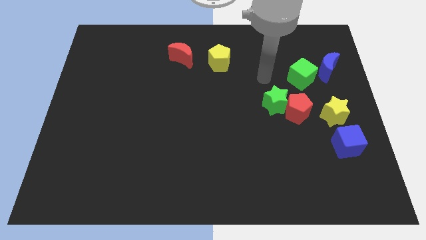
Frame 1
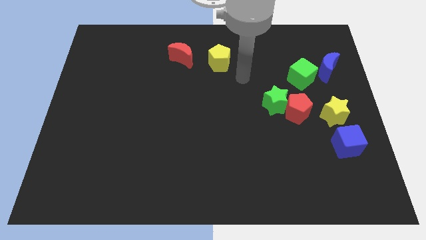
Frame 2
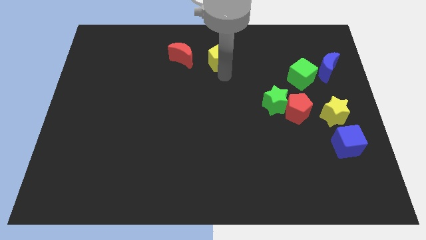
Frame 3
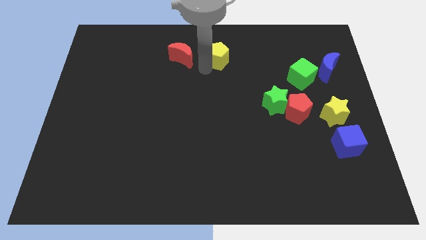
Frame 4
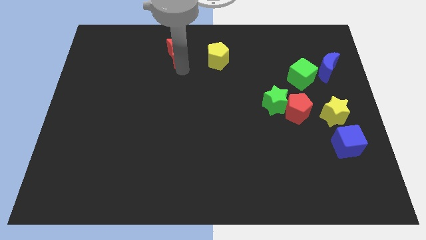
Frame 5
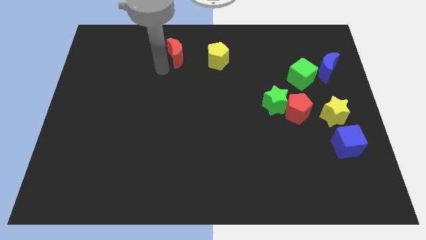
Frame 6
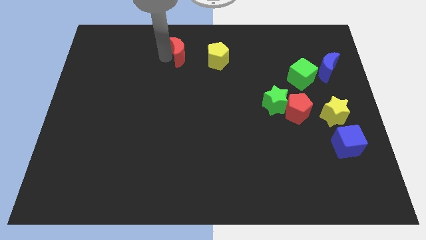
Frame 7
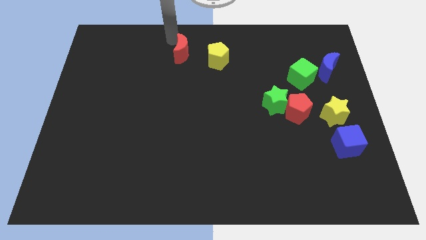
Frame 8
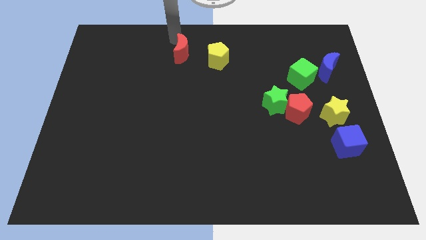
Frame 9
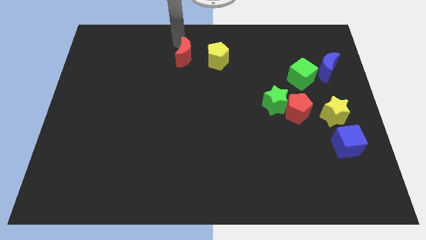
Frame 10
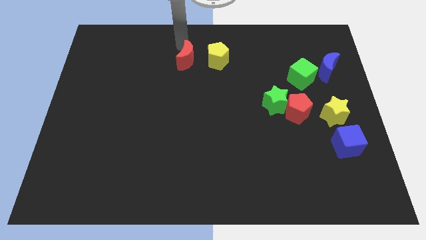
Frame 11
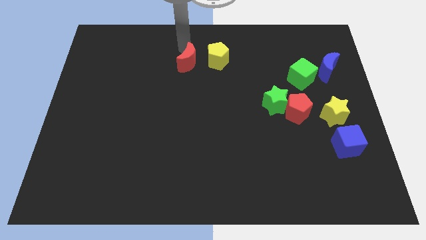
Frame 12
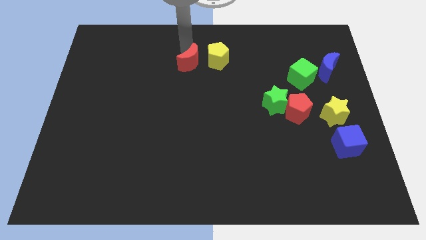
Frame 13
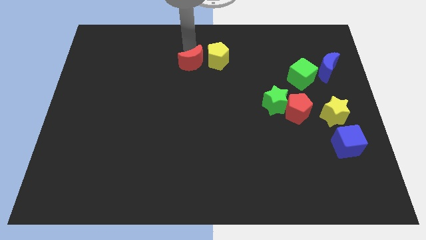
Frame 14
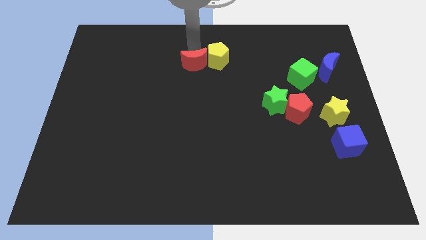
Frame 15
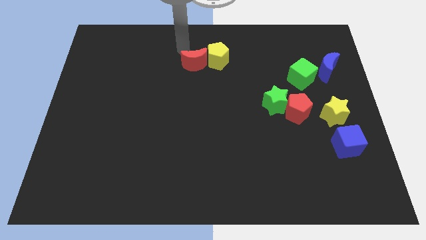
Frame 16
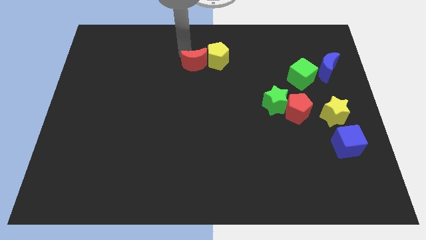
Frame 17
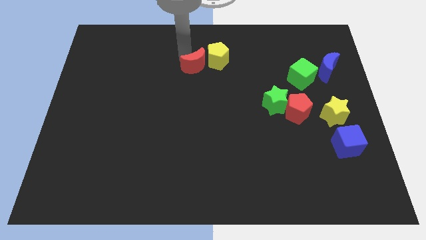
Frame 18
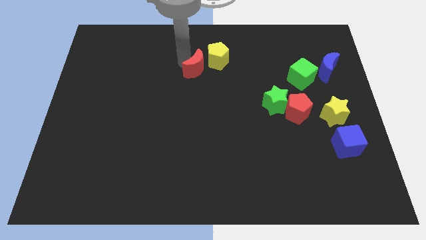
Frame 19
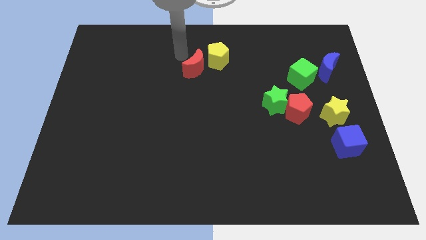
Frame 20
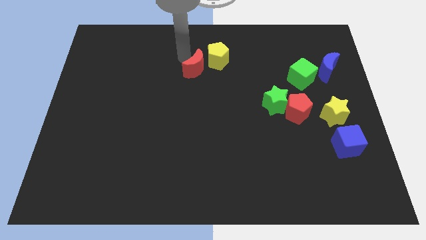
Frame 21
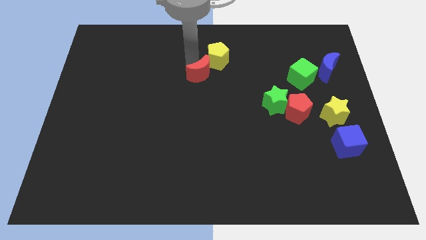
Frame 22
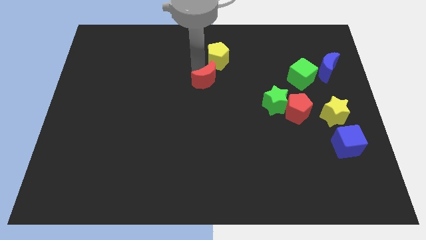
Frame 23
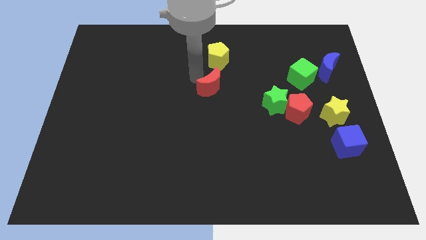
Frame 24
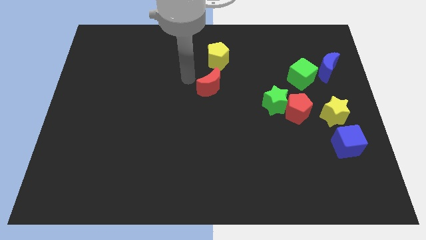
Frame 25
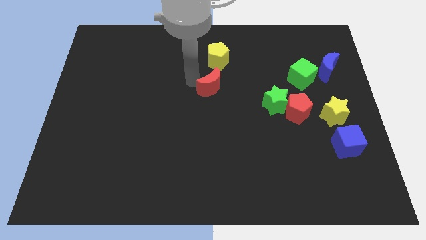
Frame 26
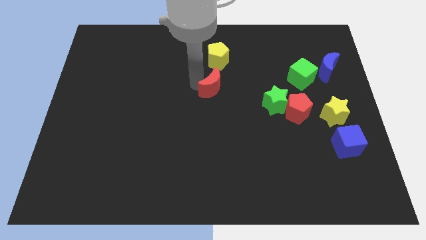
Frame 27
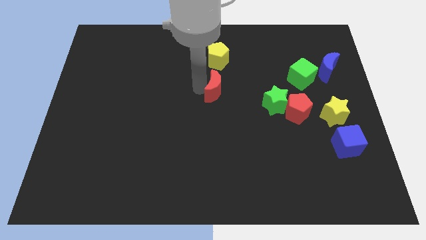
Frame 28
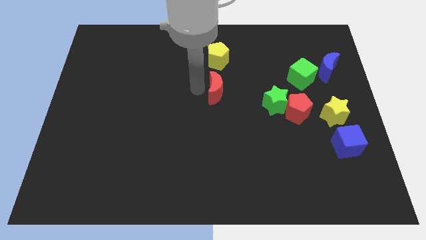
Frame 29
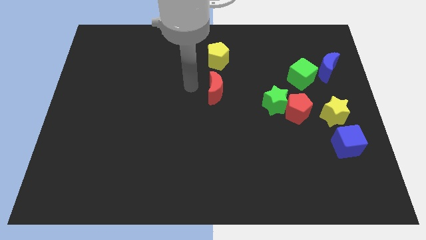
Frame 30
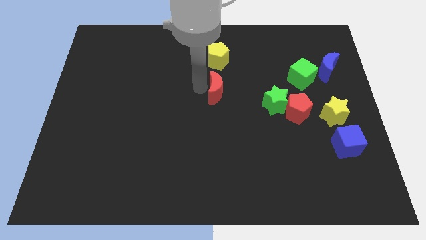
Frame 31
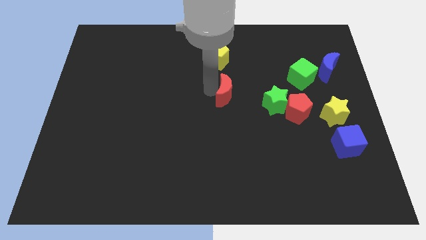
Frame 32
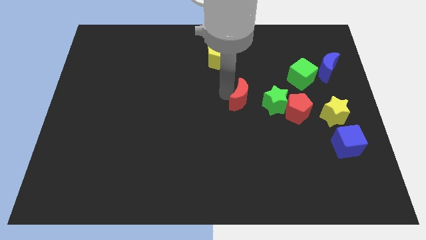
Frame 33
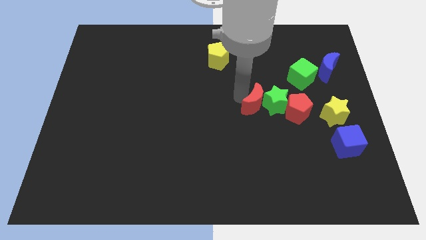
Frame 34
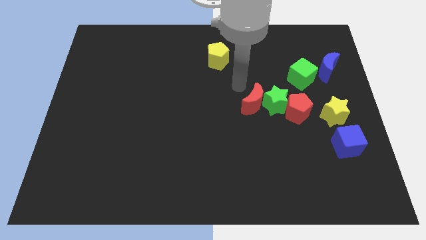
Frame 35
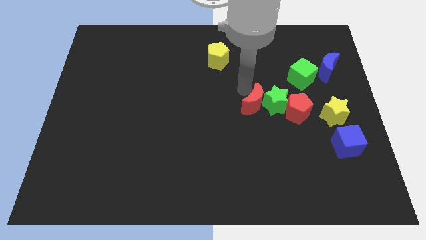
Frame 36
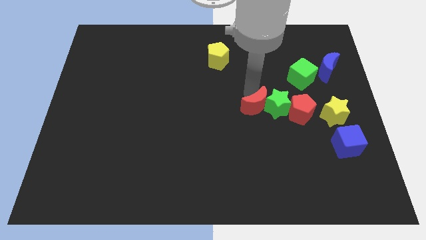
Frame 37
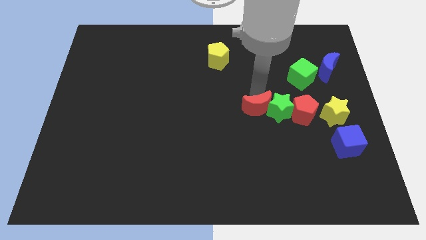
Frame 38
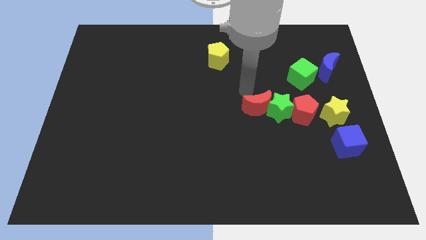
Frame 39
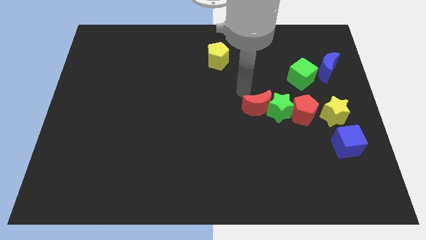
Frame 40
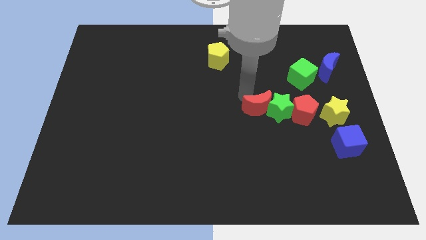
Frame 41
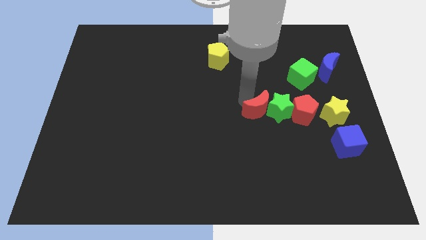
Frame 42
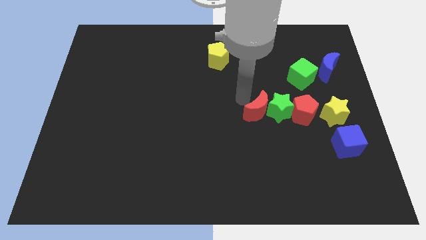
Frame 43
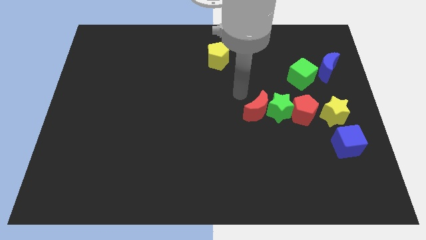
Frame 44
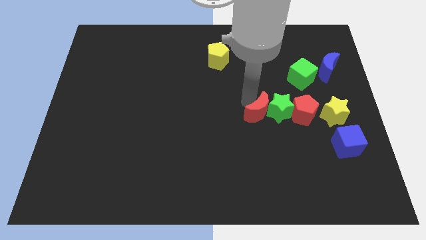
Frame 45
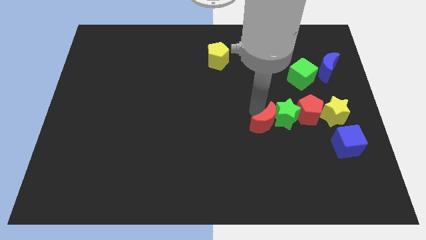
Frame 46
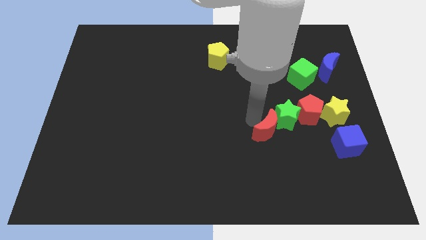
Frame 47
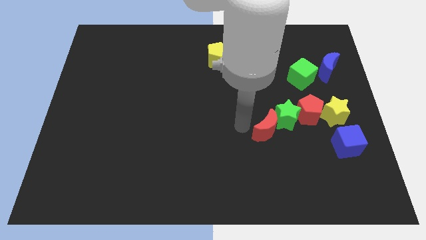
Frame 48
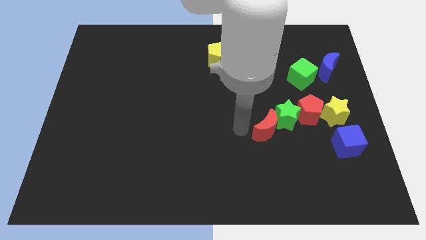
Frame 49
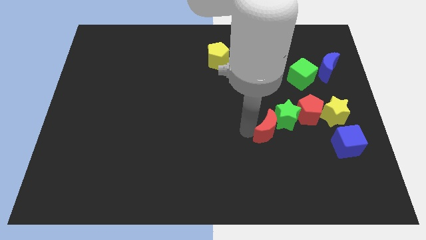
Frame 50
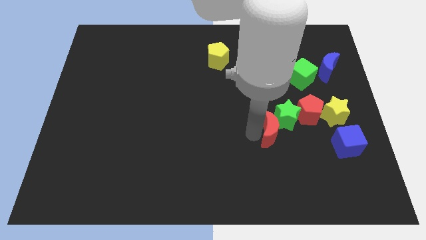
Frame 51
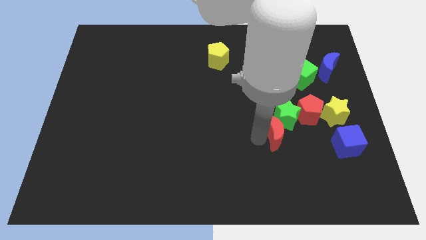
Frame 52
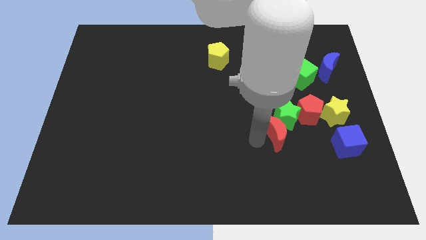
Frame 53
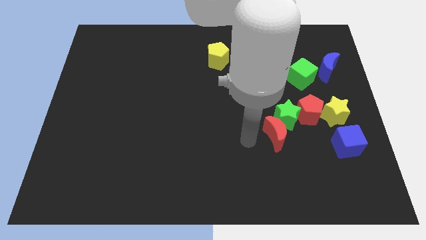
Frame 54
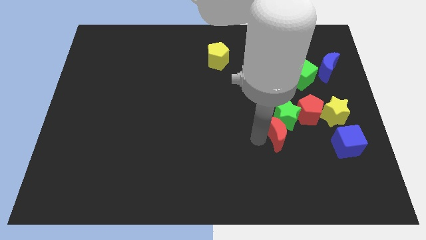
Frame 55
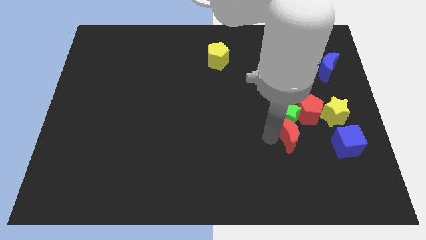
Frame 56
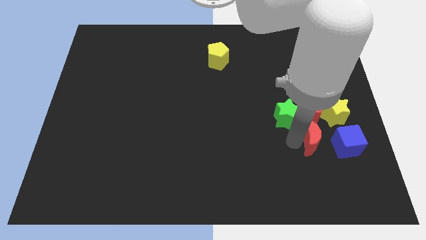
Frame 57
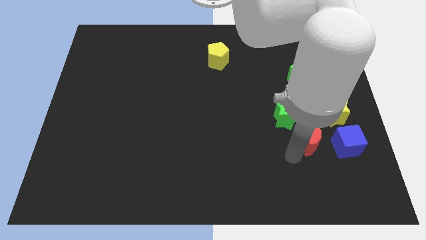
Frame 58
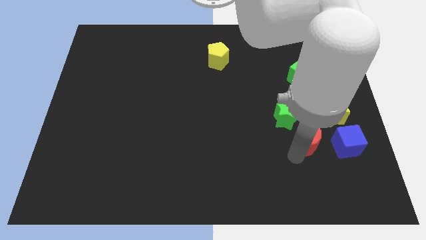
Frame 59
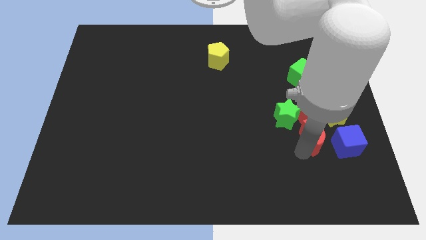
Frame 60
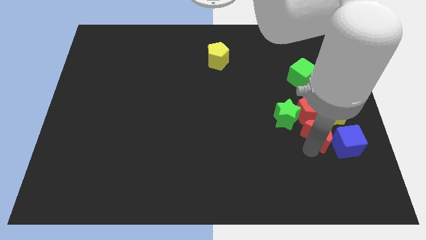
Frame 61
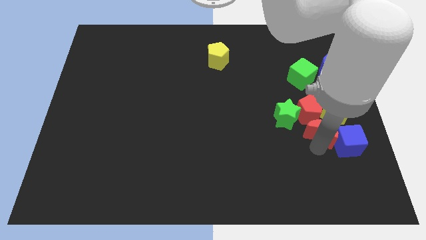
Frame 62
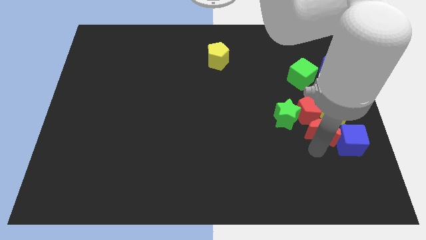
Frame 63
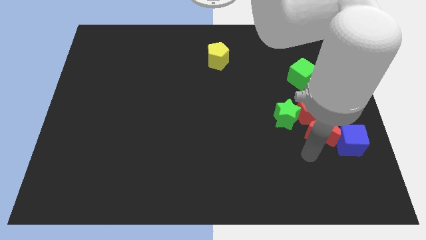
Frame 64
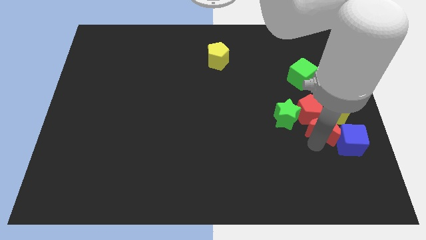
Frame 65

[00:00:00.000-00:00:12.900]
push the red moon to the yellow star
